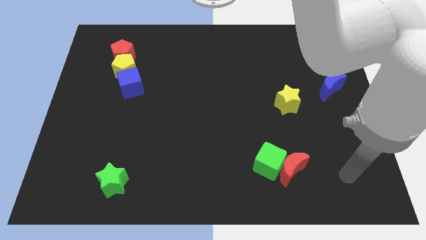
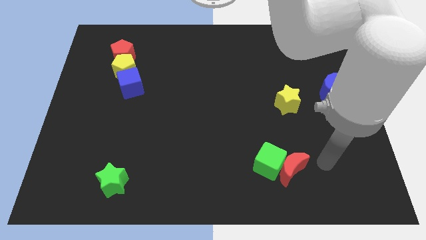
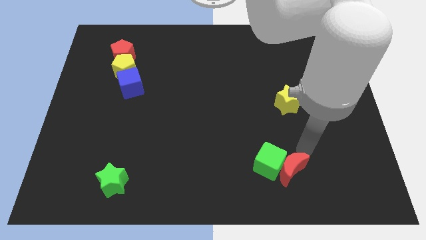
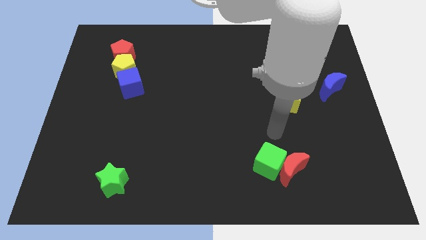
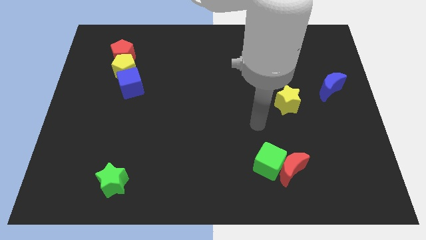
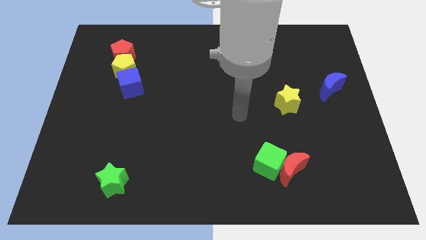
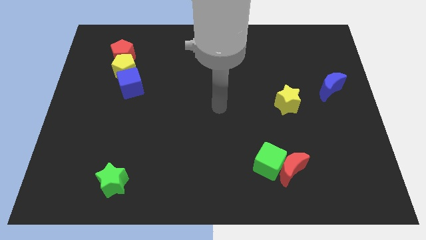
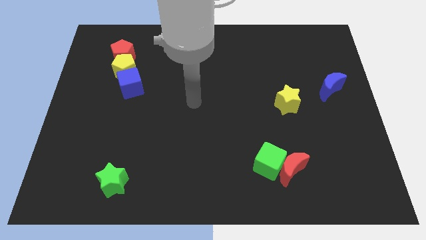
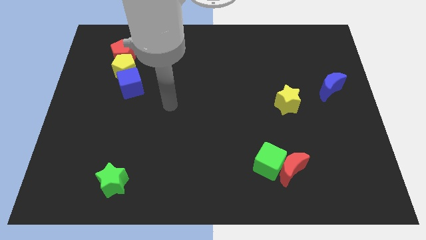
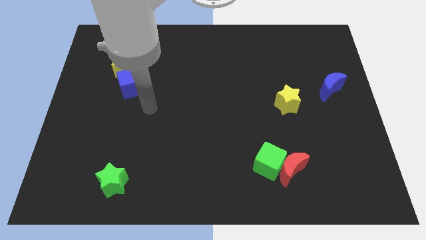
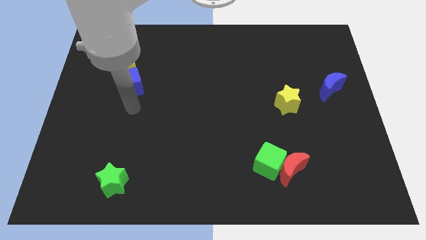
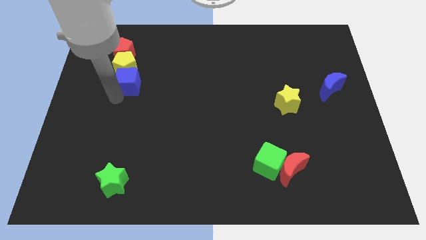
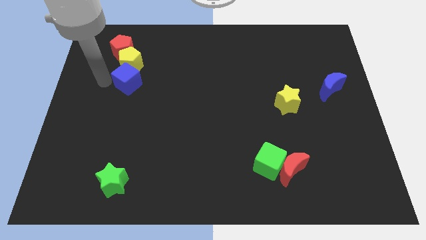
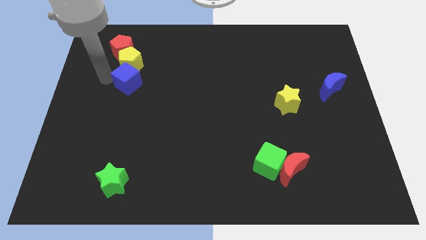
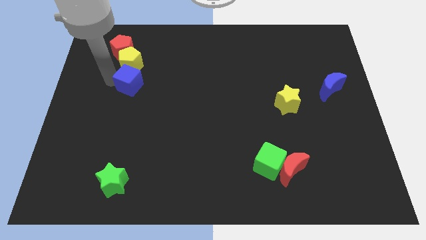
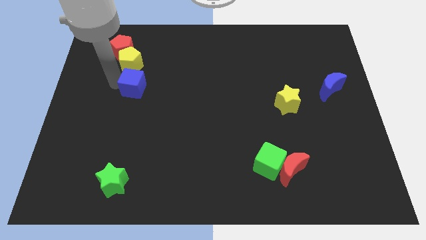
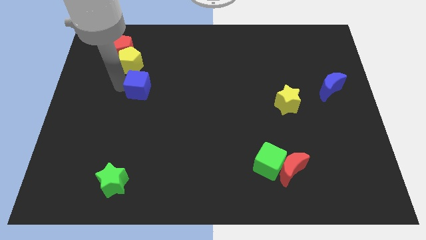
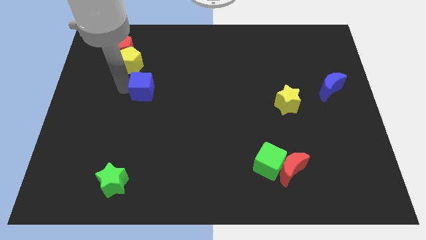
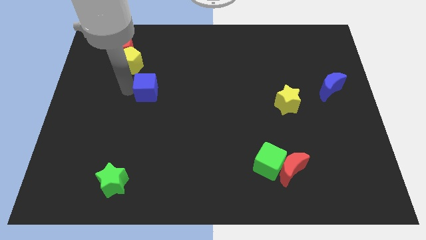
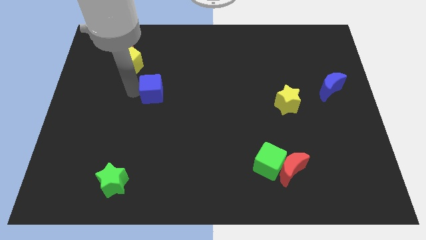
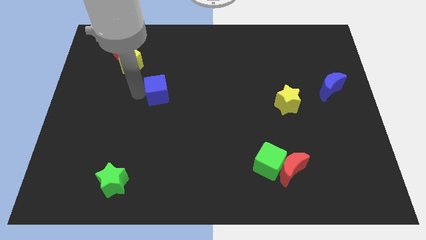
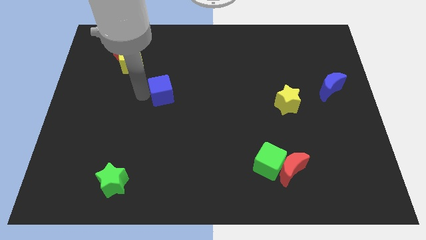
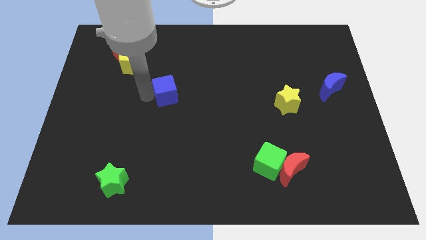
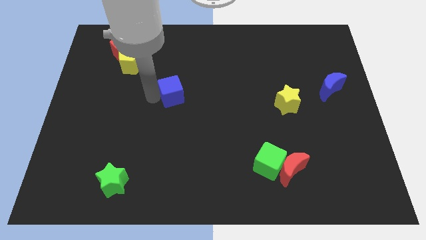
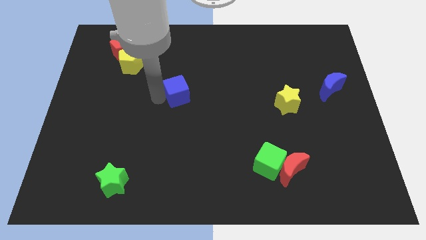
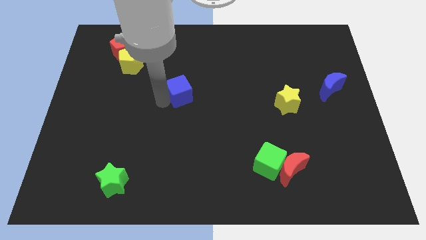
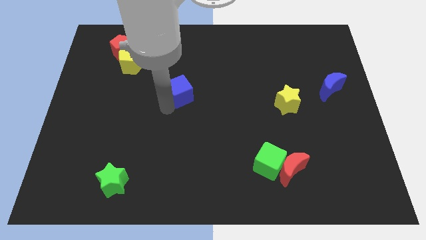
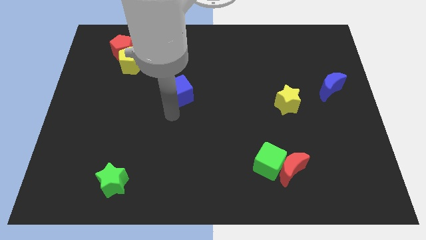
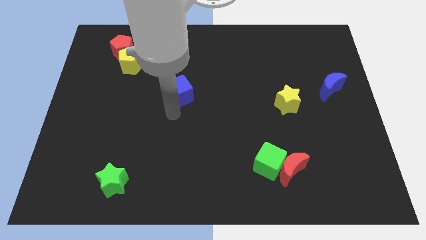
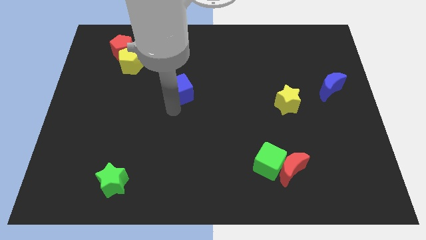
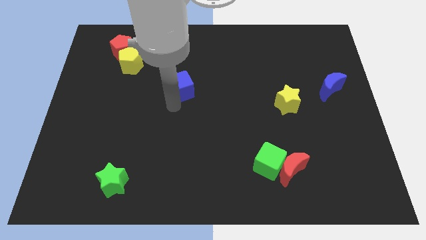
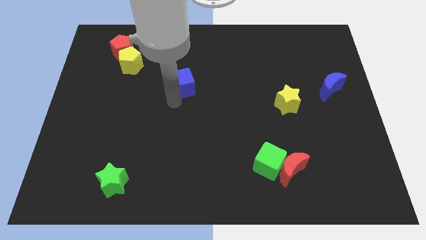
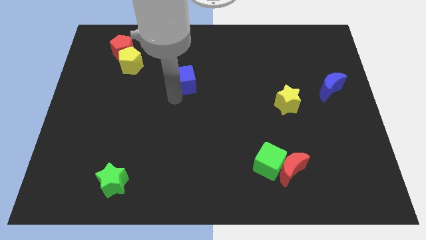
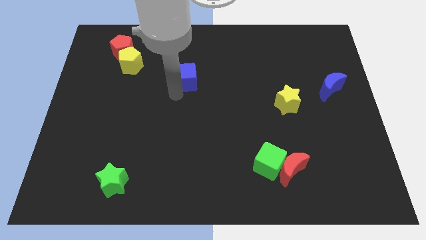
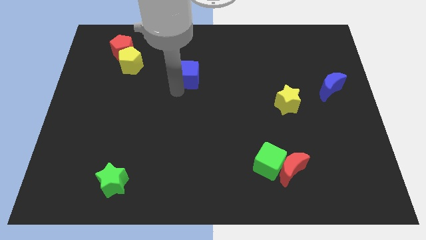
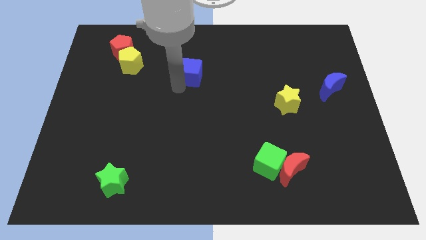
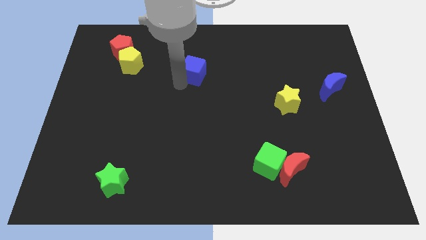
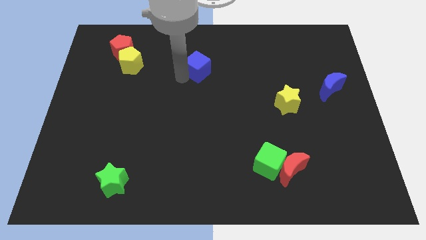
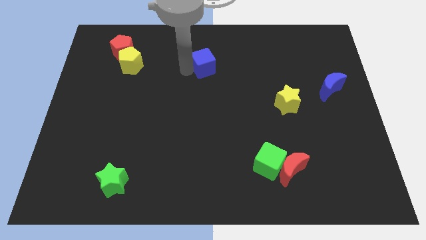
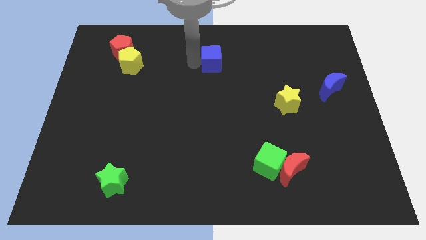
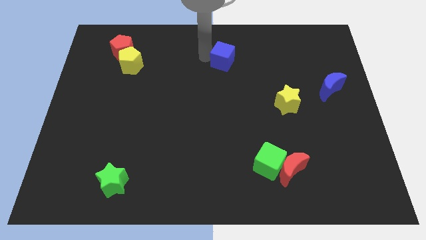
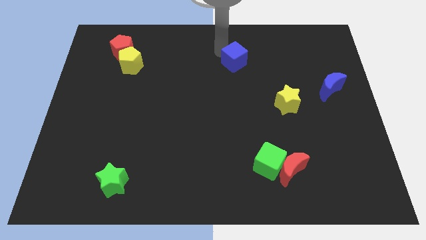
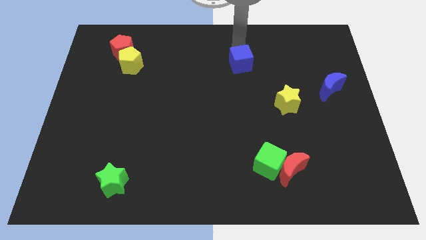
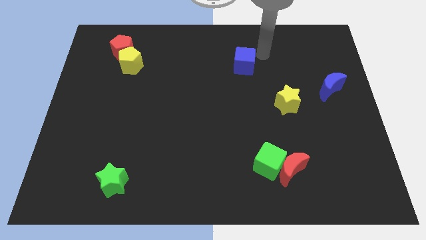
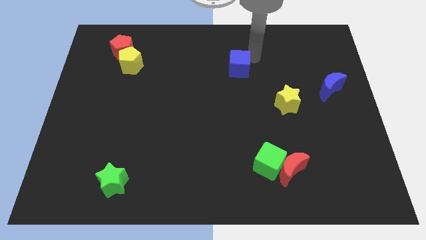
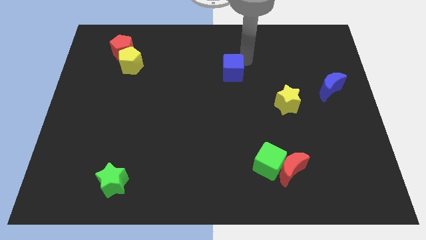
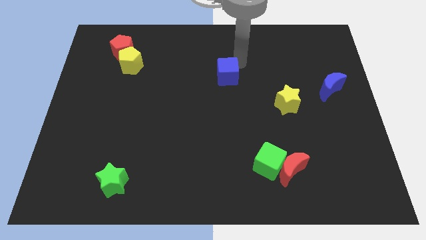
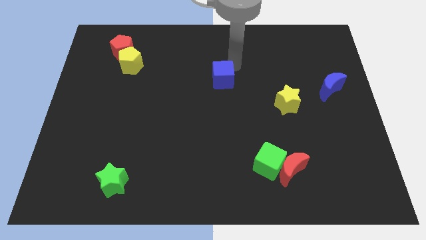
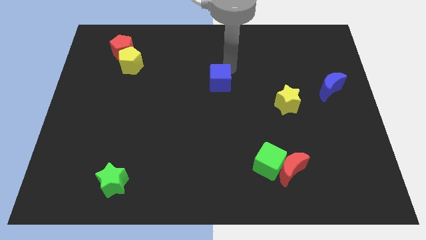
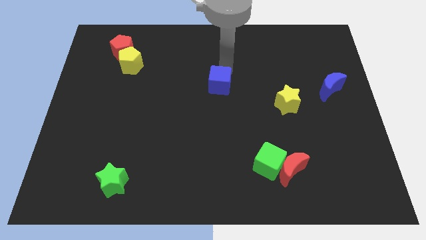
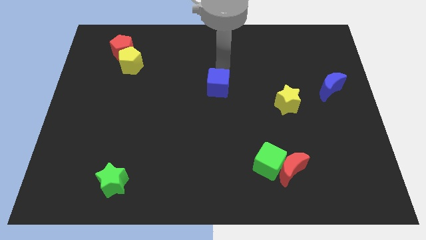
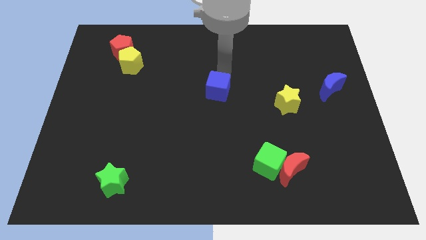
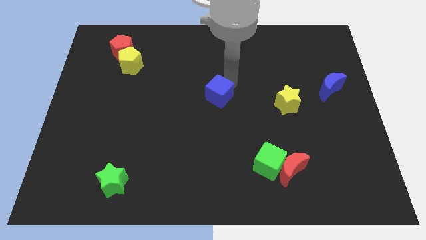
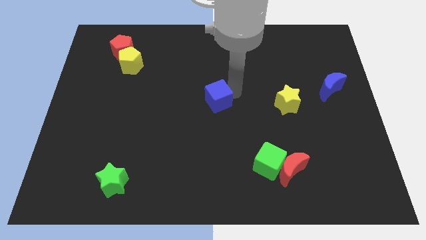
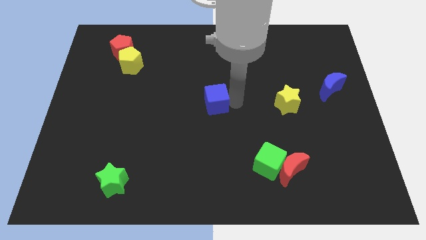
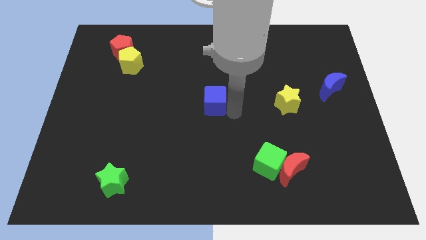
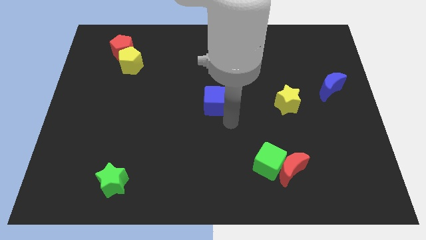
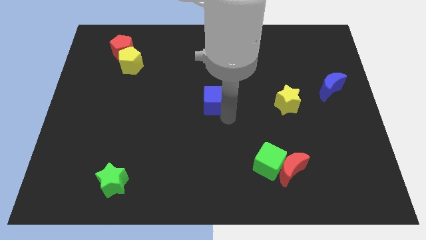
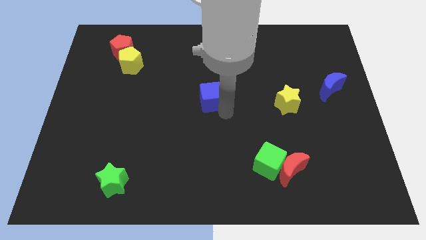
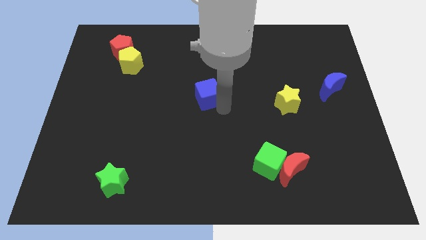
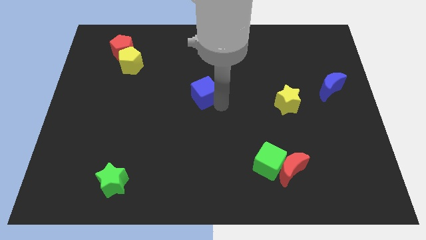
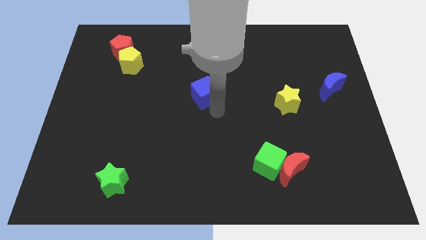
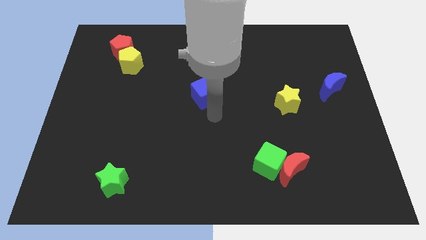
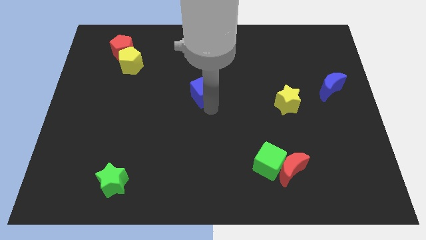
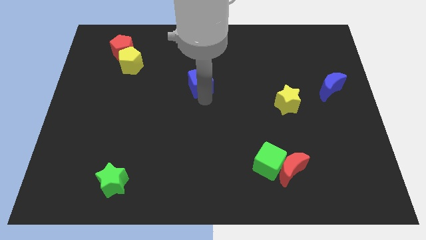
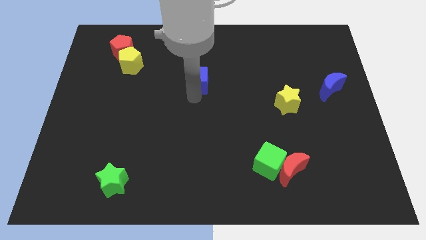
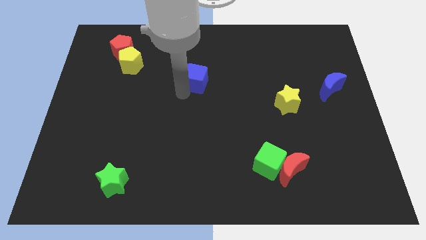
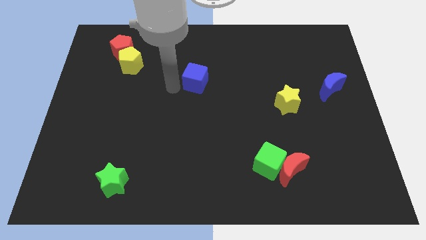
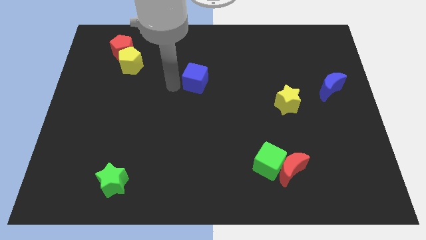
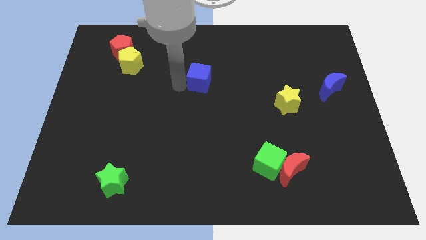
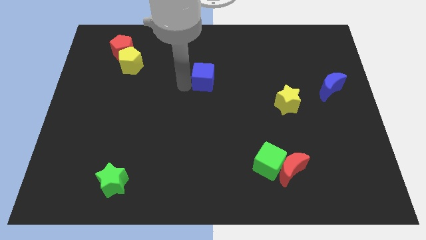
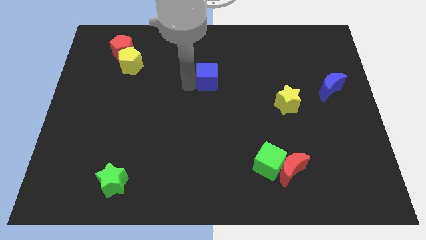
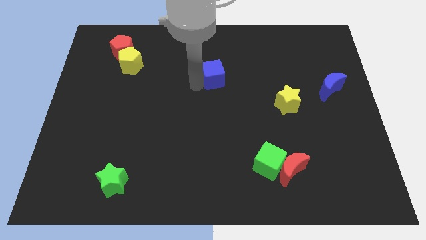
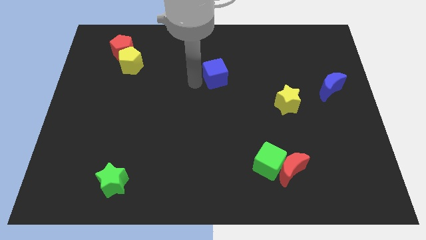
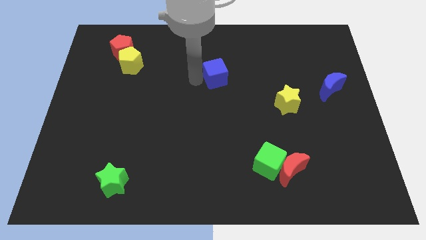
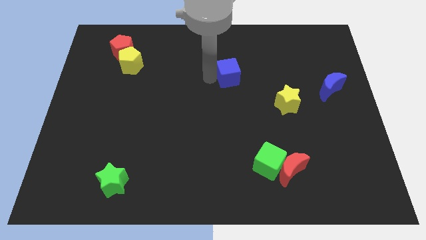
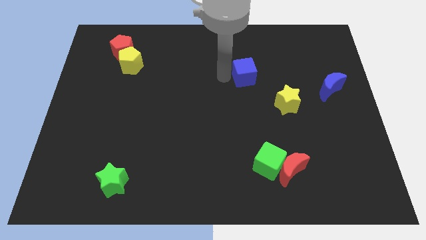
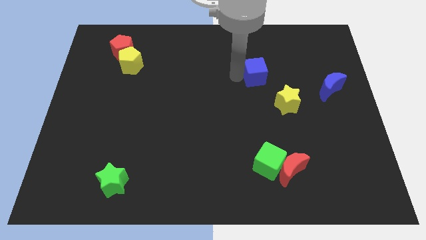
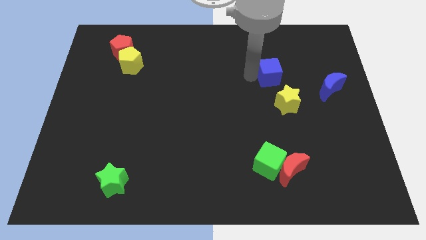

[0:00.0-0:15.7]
move the blue cube to the top side of the yellow star
